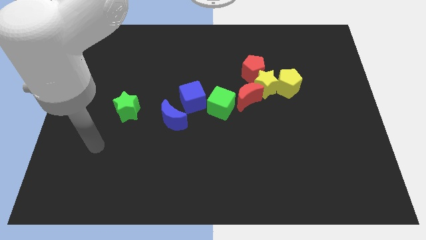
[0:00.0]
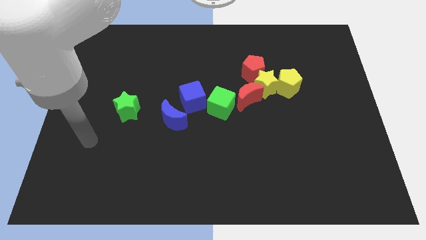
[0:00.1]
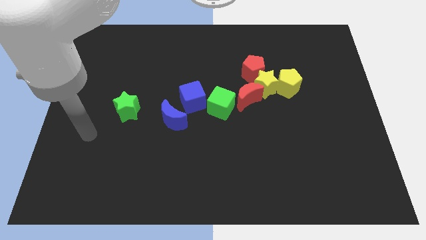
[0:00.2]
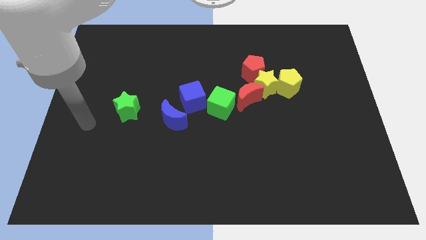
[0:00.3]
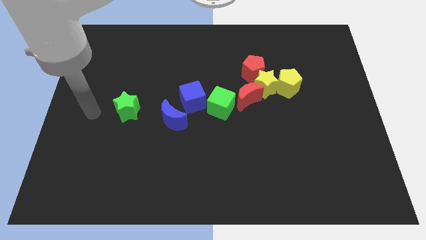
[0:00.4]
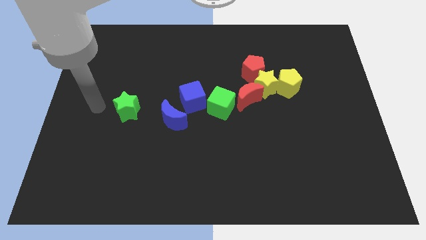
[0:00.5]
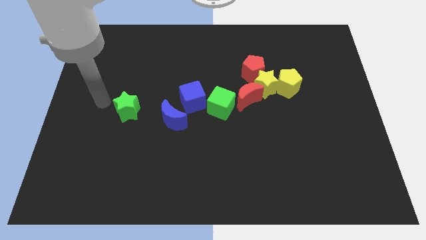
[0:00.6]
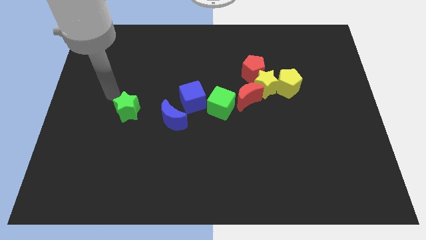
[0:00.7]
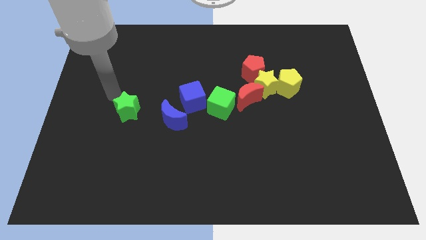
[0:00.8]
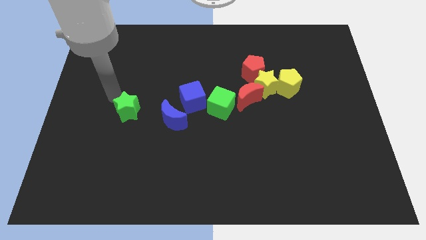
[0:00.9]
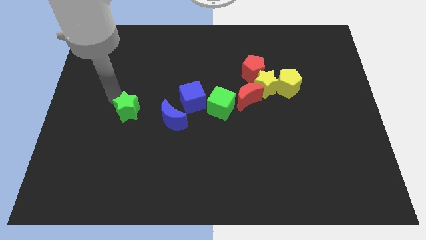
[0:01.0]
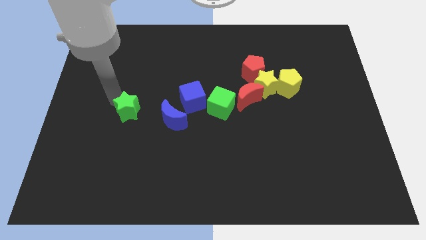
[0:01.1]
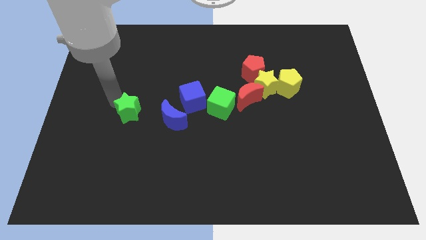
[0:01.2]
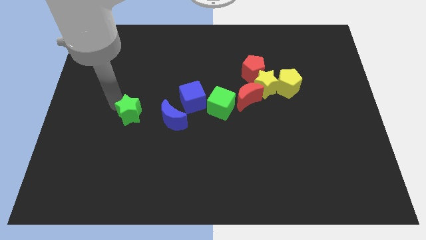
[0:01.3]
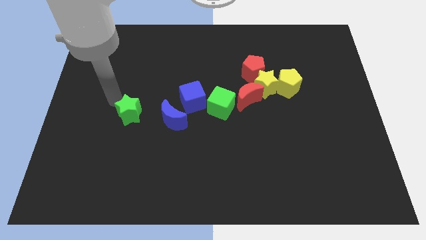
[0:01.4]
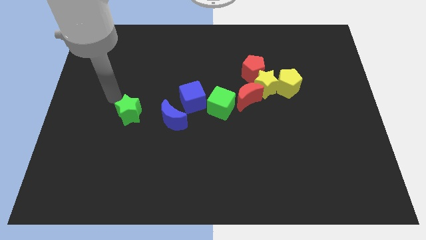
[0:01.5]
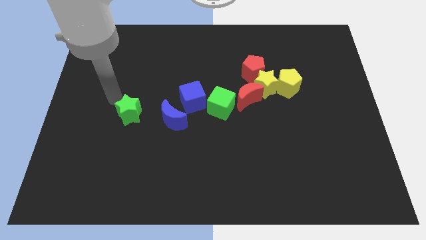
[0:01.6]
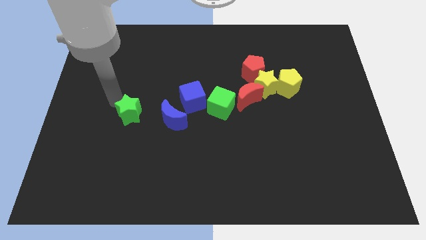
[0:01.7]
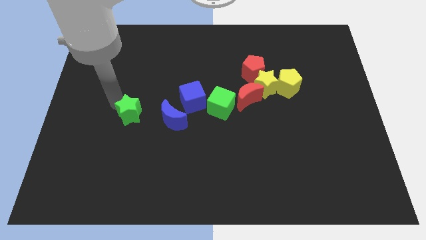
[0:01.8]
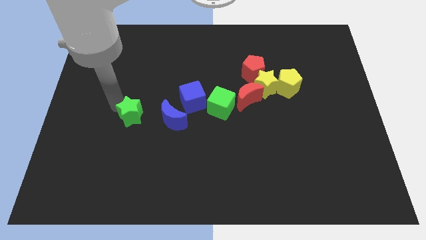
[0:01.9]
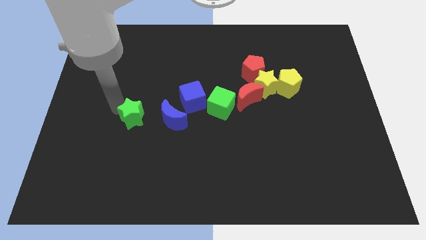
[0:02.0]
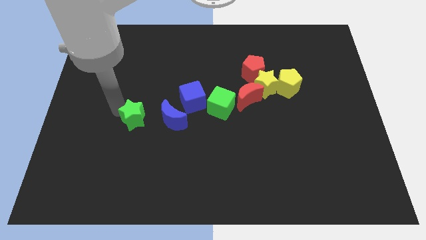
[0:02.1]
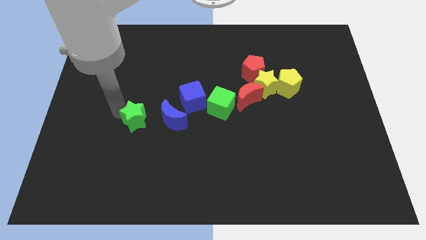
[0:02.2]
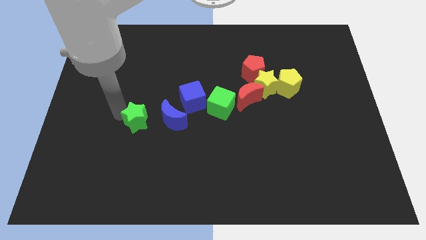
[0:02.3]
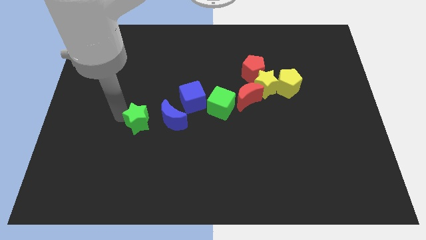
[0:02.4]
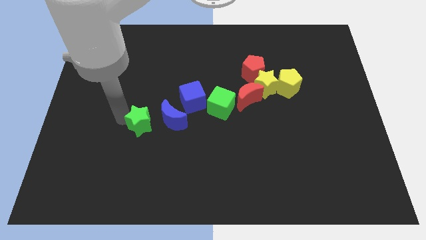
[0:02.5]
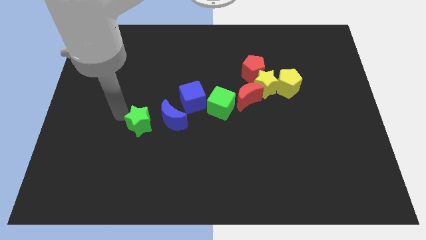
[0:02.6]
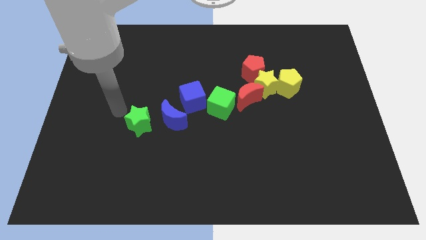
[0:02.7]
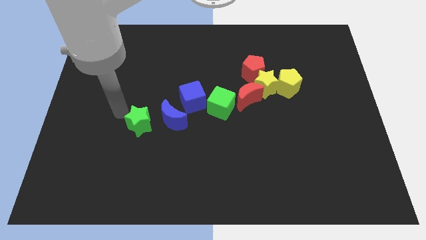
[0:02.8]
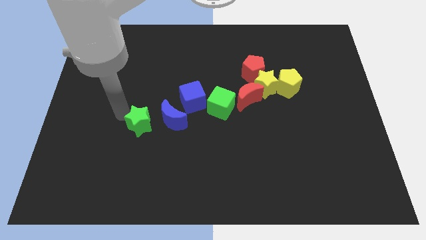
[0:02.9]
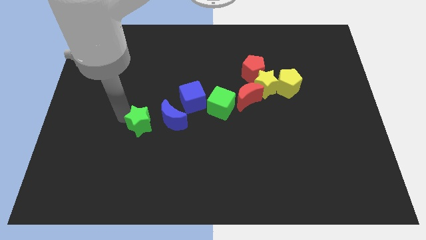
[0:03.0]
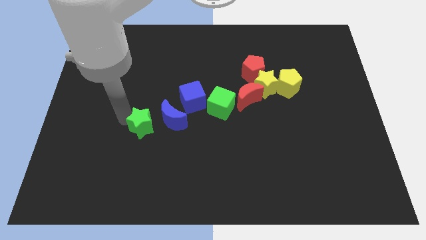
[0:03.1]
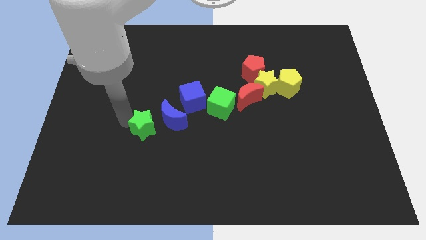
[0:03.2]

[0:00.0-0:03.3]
slightly move the green star down and right diagonally

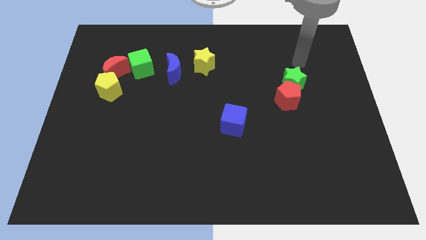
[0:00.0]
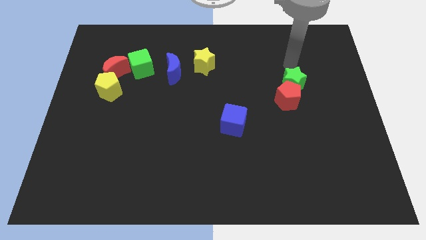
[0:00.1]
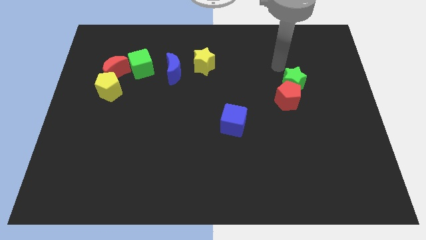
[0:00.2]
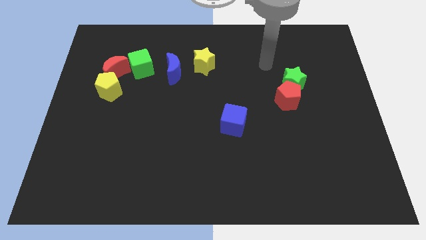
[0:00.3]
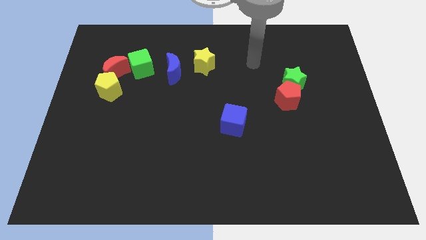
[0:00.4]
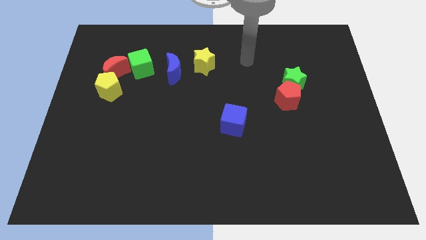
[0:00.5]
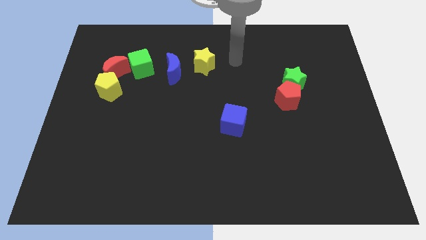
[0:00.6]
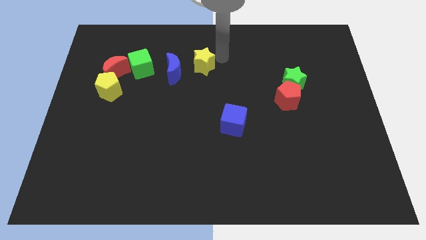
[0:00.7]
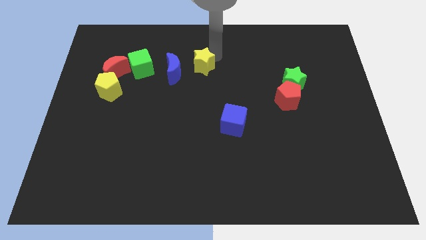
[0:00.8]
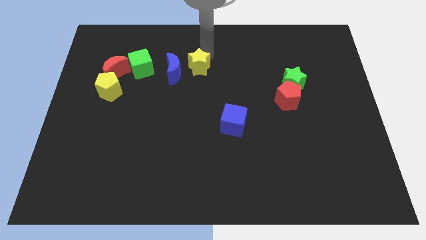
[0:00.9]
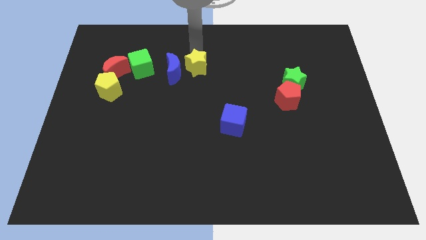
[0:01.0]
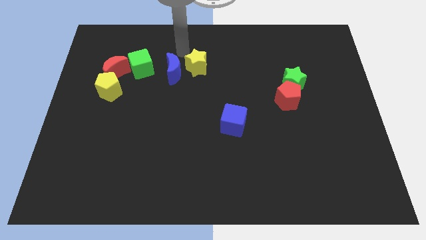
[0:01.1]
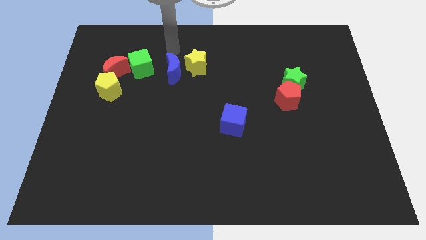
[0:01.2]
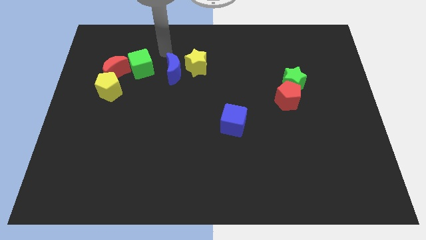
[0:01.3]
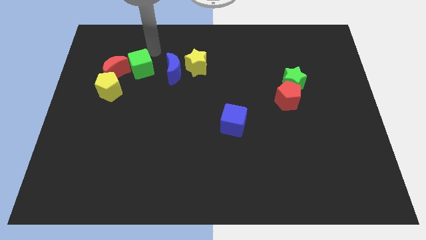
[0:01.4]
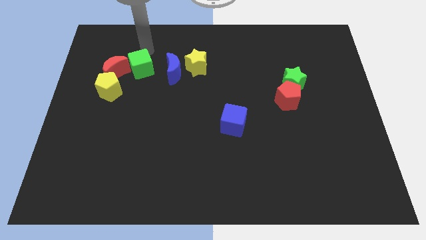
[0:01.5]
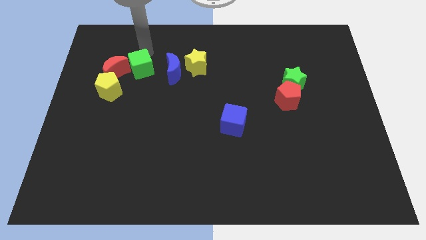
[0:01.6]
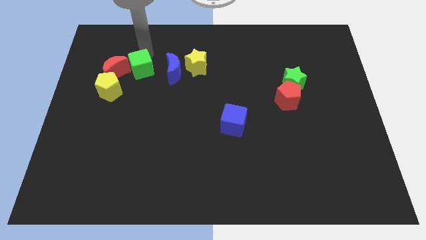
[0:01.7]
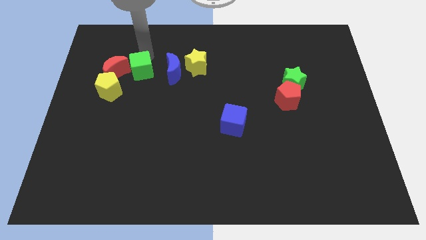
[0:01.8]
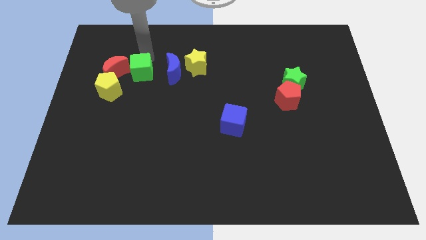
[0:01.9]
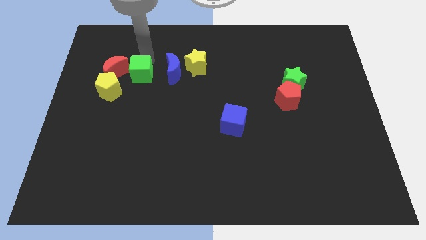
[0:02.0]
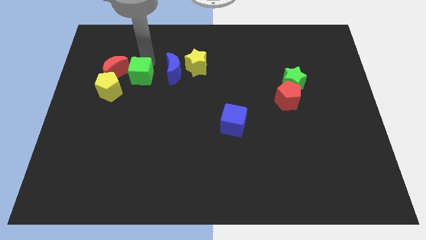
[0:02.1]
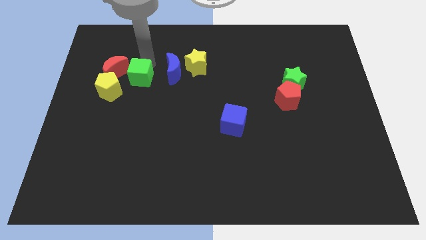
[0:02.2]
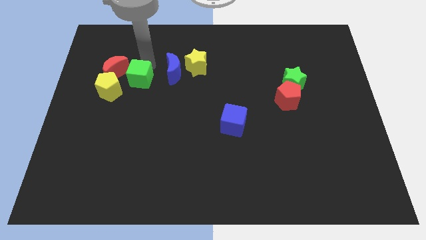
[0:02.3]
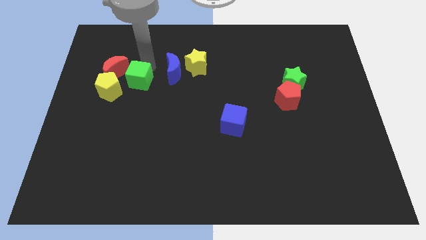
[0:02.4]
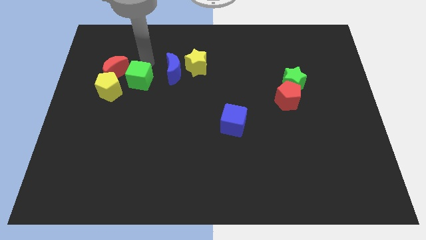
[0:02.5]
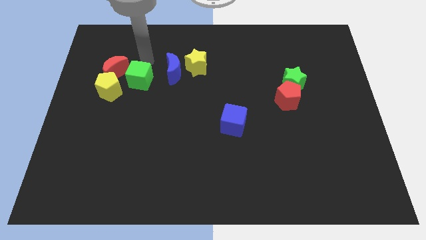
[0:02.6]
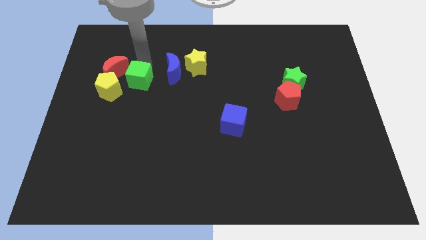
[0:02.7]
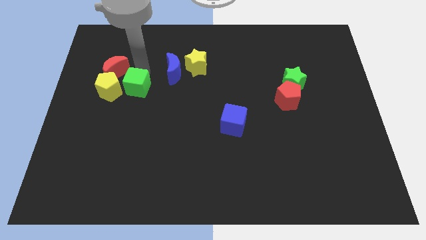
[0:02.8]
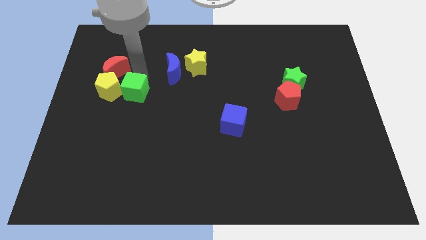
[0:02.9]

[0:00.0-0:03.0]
slide the green cube slightly downwards

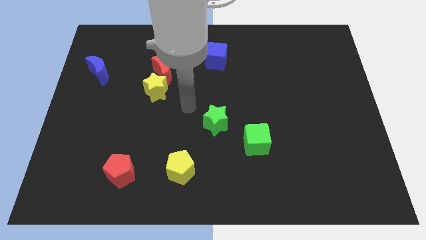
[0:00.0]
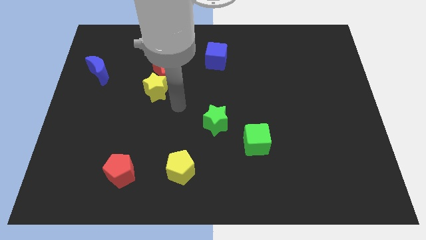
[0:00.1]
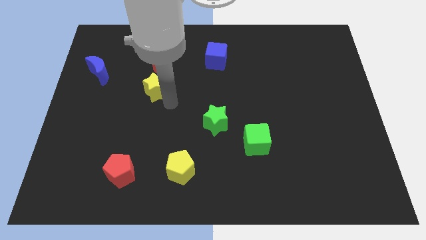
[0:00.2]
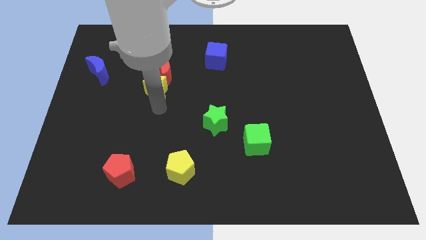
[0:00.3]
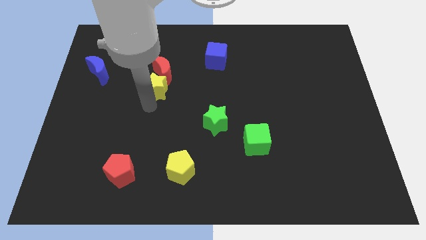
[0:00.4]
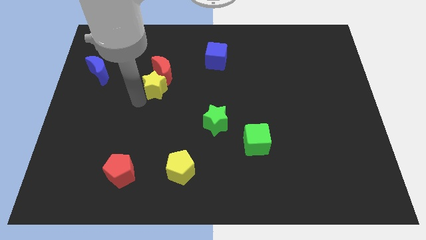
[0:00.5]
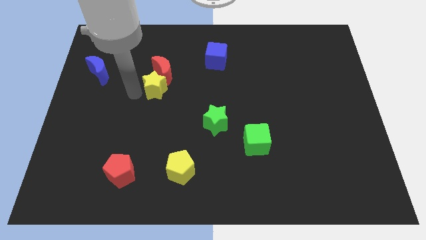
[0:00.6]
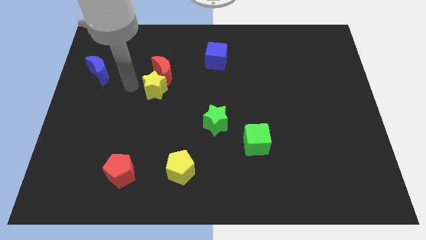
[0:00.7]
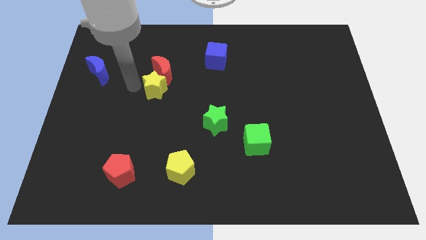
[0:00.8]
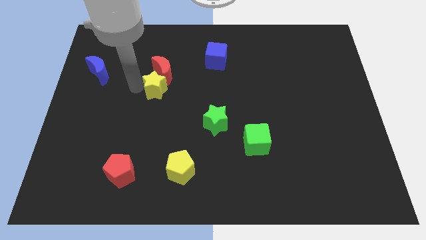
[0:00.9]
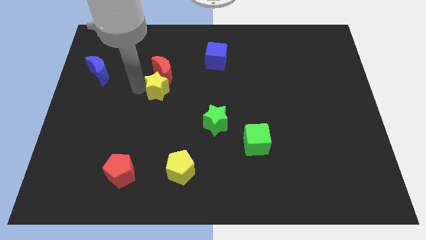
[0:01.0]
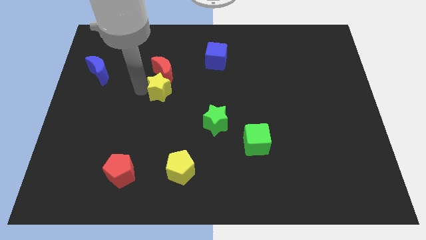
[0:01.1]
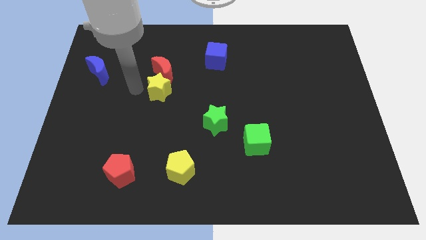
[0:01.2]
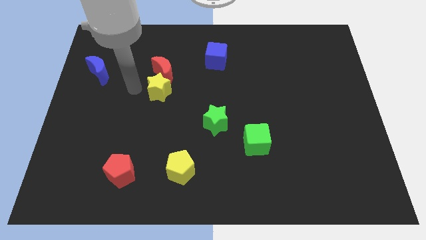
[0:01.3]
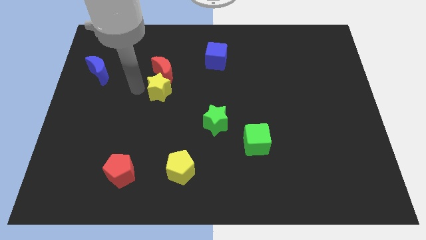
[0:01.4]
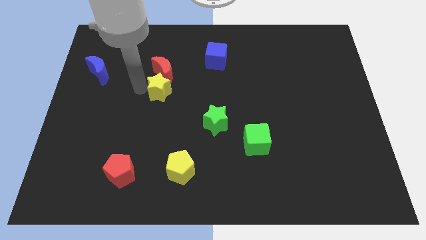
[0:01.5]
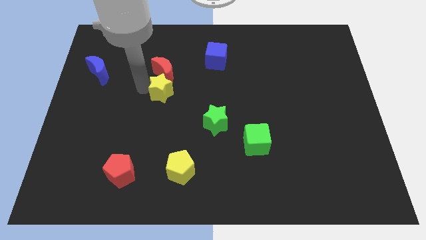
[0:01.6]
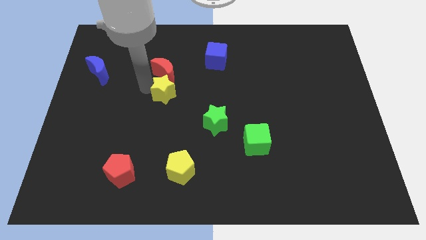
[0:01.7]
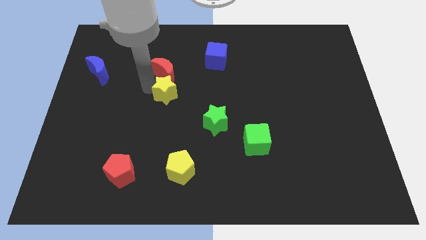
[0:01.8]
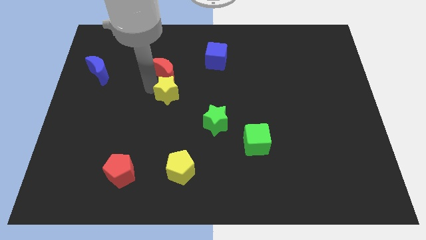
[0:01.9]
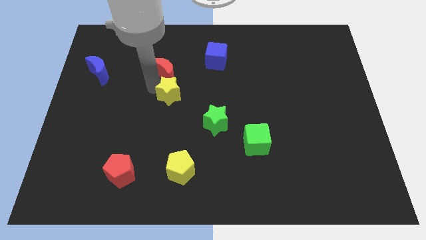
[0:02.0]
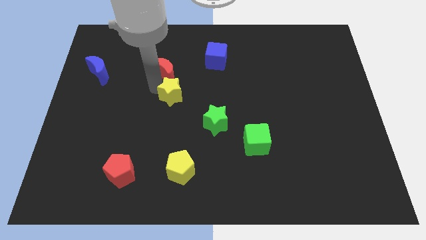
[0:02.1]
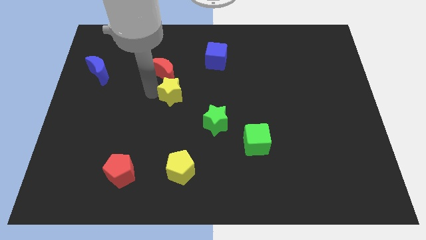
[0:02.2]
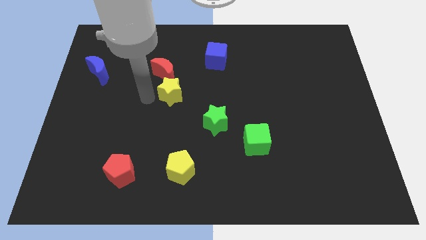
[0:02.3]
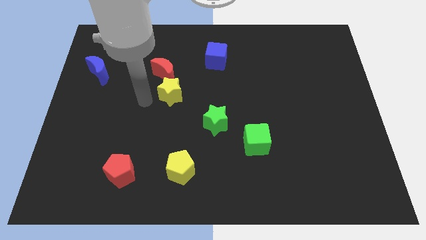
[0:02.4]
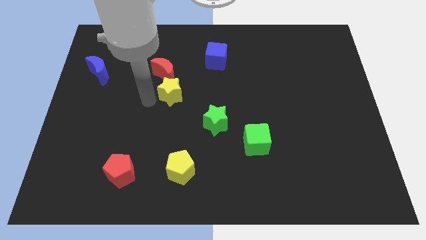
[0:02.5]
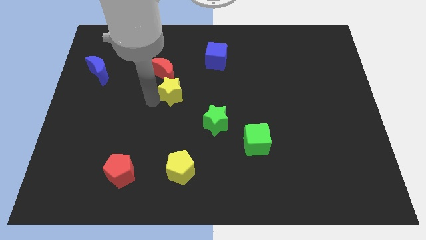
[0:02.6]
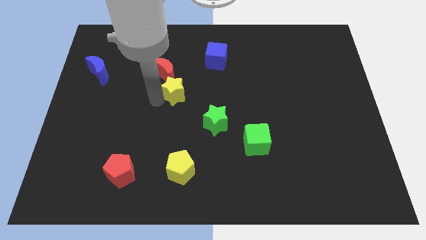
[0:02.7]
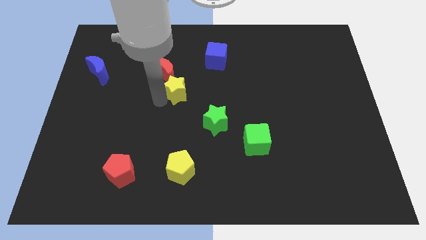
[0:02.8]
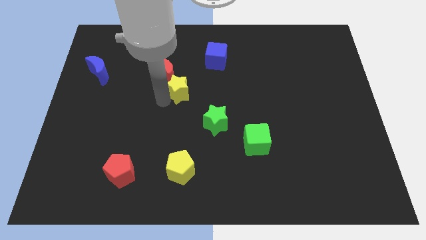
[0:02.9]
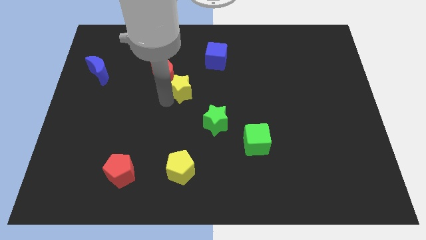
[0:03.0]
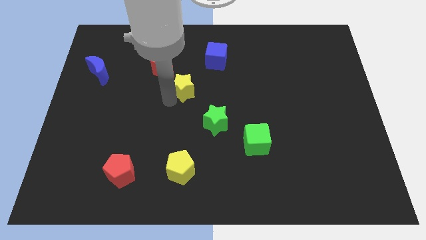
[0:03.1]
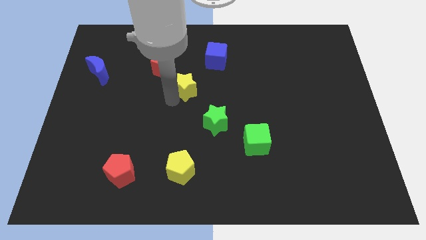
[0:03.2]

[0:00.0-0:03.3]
slide the yellow star to the right a little bit
